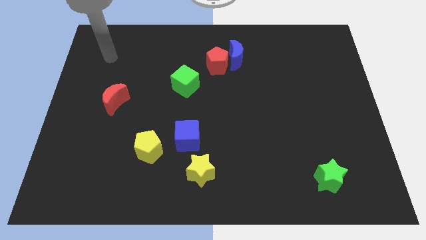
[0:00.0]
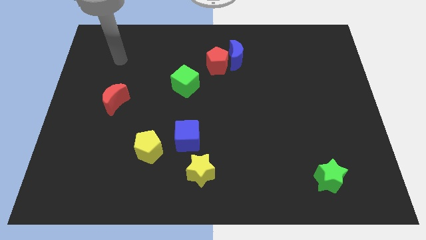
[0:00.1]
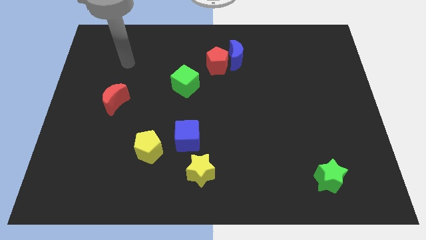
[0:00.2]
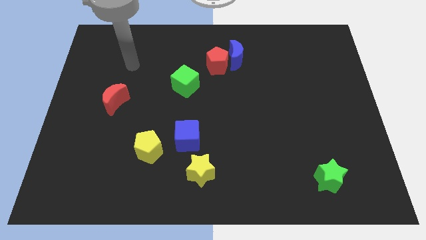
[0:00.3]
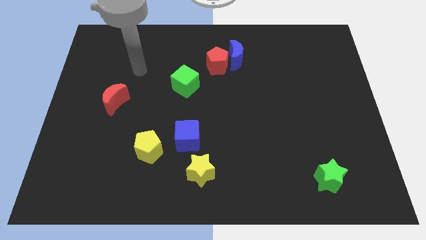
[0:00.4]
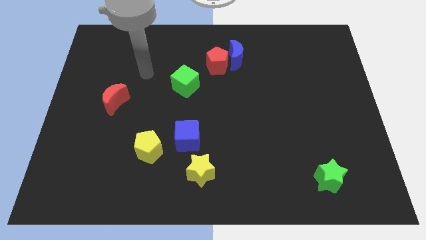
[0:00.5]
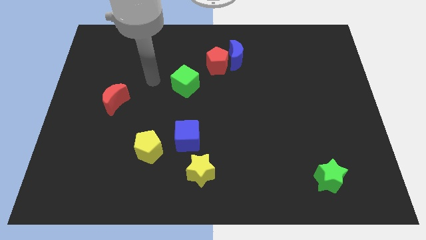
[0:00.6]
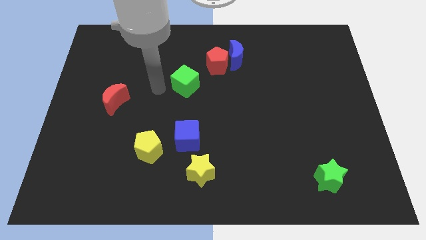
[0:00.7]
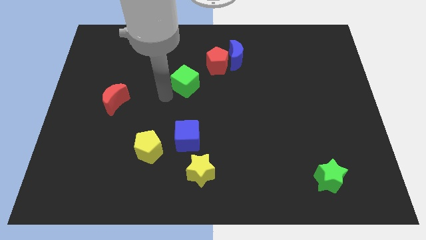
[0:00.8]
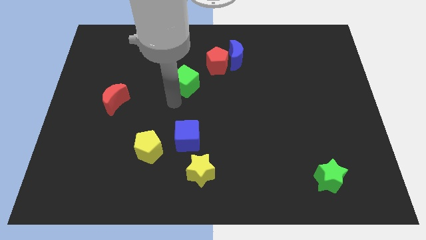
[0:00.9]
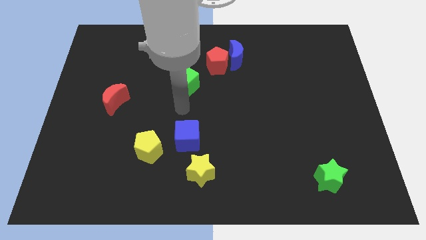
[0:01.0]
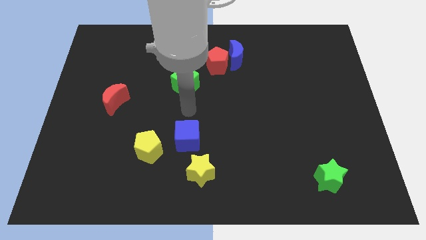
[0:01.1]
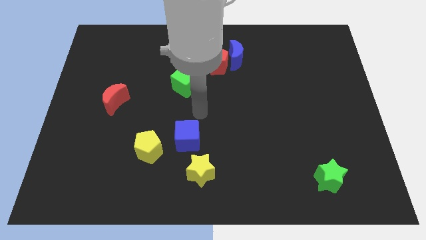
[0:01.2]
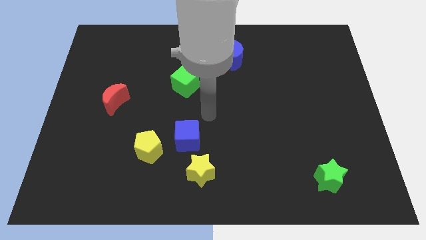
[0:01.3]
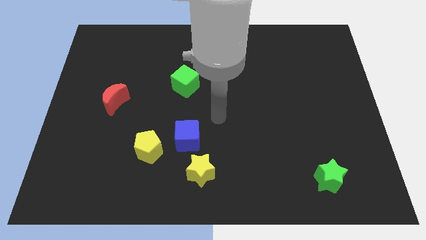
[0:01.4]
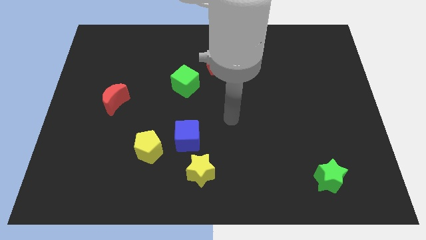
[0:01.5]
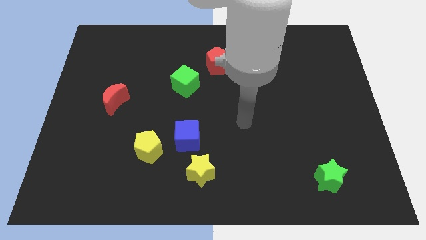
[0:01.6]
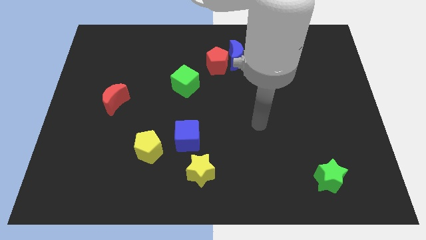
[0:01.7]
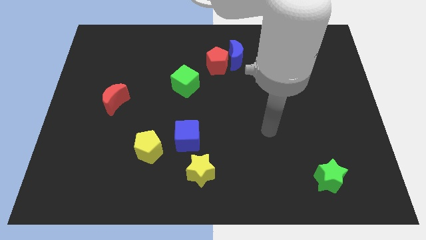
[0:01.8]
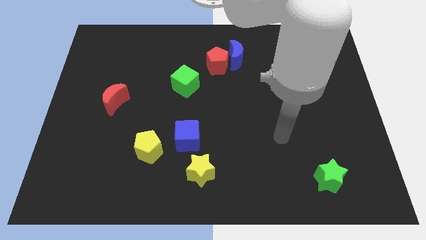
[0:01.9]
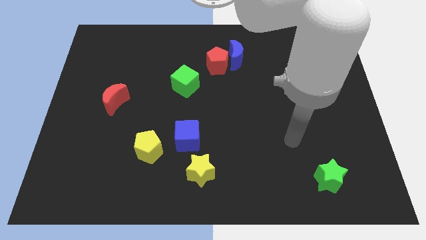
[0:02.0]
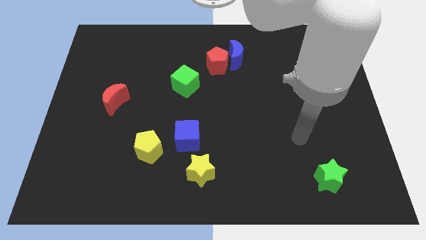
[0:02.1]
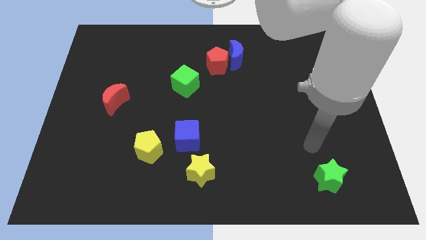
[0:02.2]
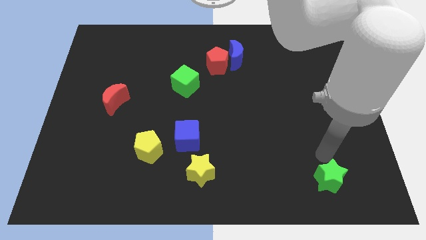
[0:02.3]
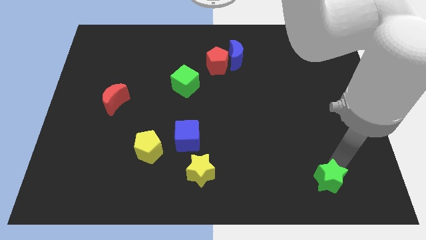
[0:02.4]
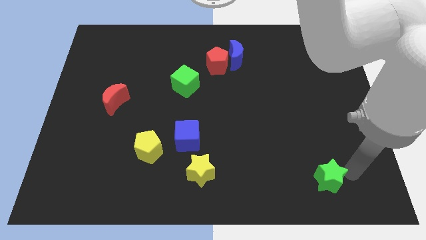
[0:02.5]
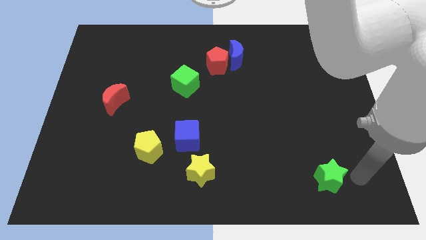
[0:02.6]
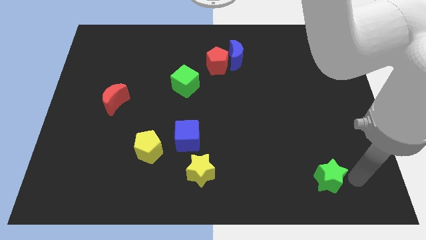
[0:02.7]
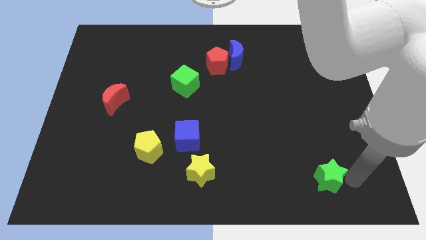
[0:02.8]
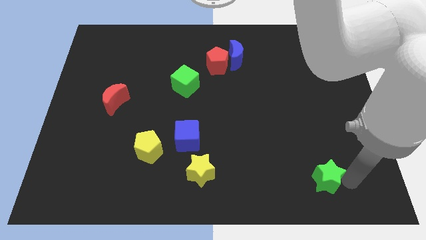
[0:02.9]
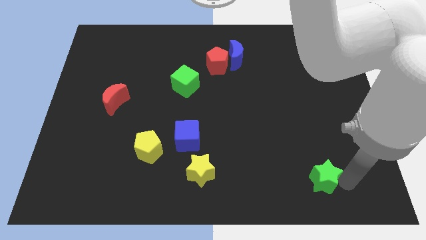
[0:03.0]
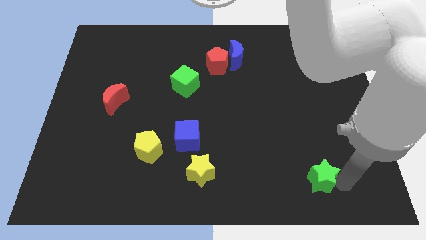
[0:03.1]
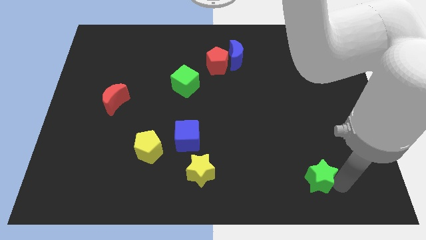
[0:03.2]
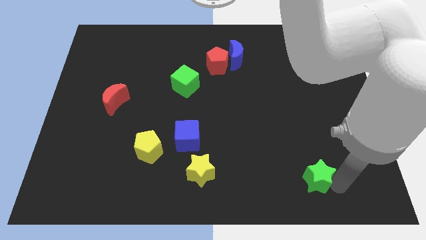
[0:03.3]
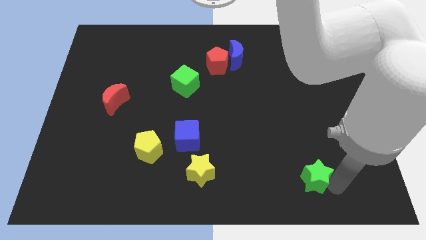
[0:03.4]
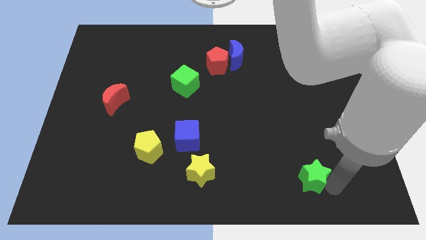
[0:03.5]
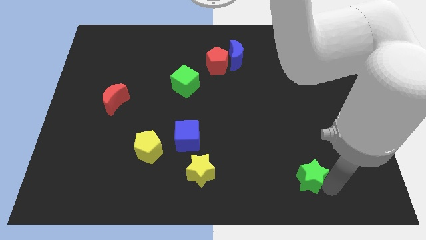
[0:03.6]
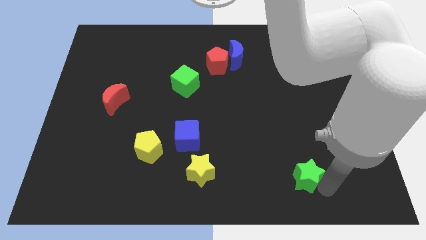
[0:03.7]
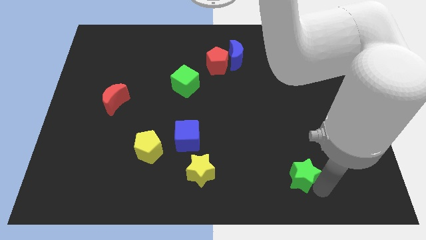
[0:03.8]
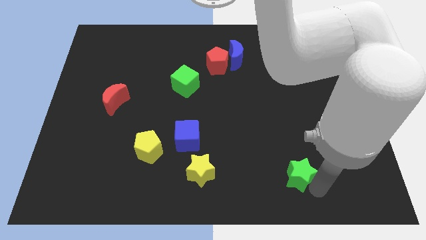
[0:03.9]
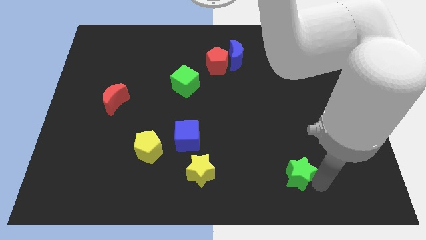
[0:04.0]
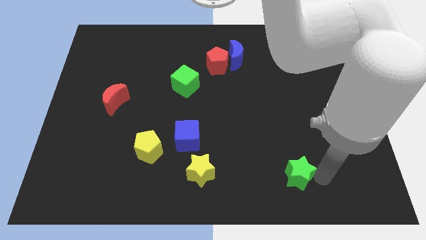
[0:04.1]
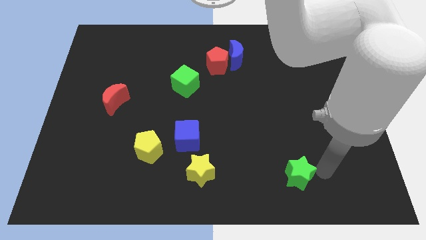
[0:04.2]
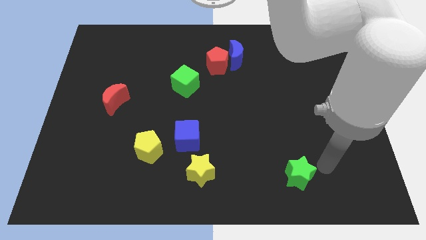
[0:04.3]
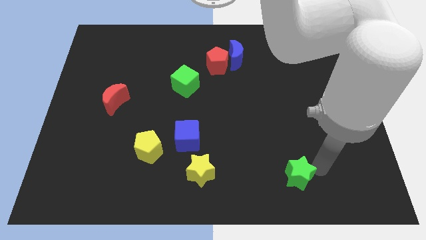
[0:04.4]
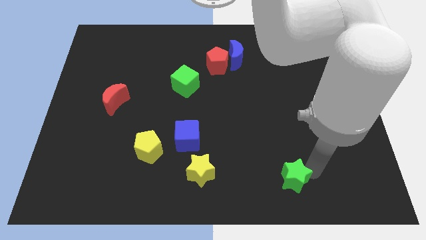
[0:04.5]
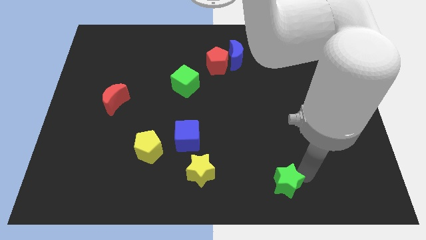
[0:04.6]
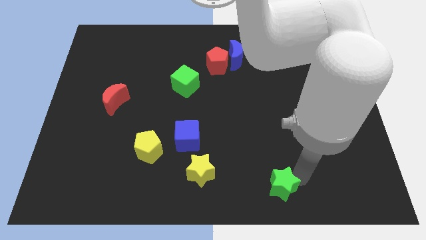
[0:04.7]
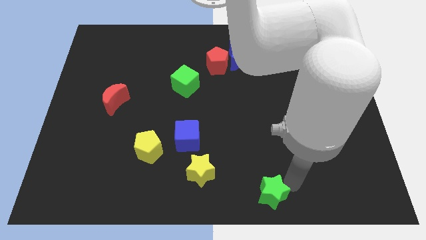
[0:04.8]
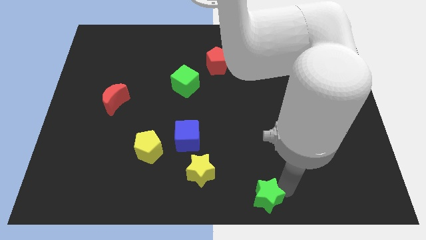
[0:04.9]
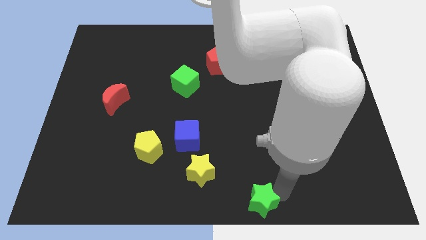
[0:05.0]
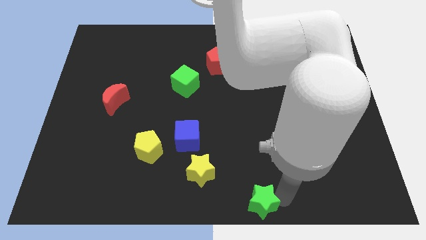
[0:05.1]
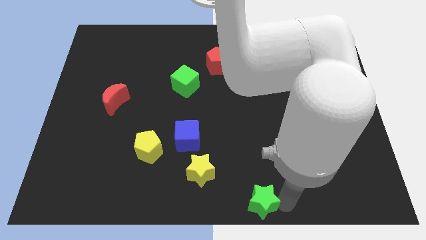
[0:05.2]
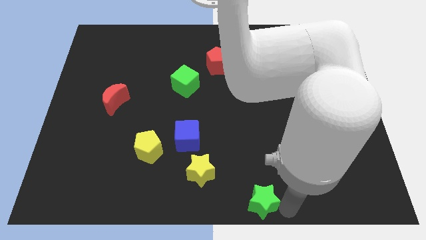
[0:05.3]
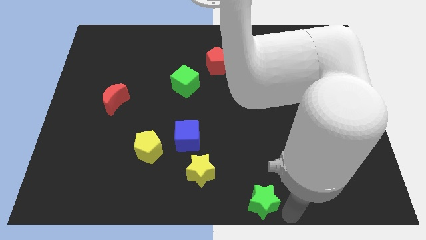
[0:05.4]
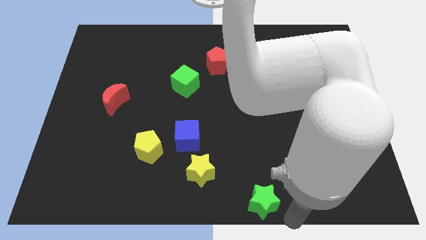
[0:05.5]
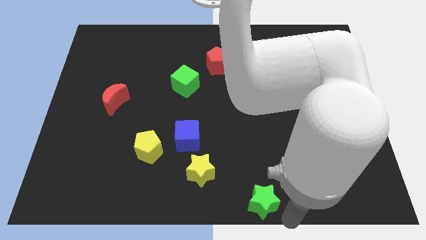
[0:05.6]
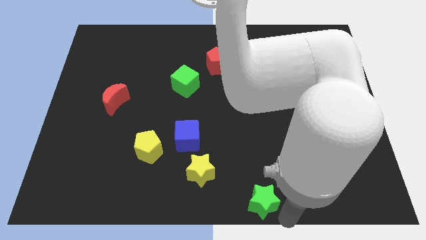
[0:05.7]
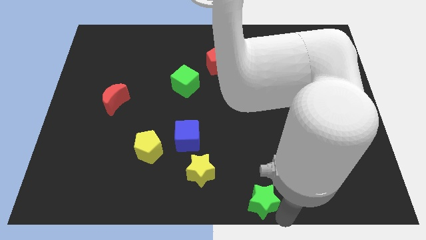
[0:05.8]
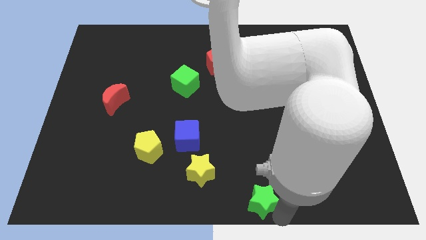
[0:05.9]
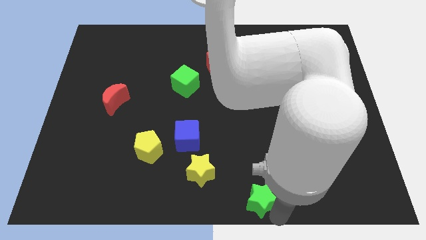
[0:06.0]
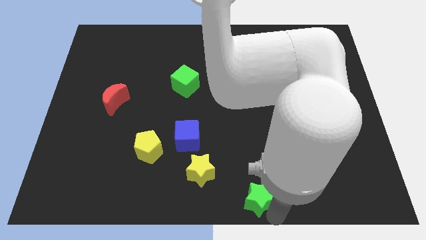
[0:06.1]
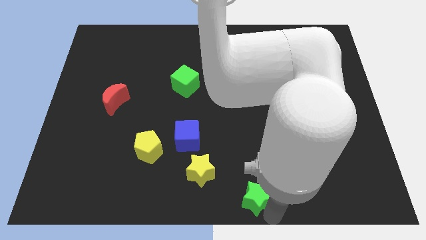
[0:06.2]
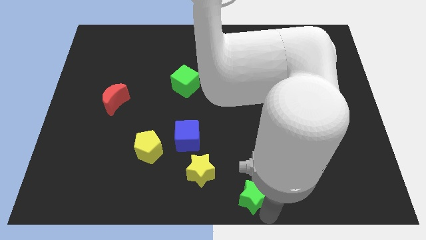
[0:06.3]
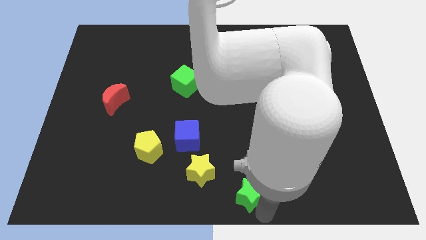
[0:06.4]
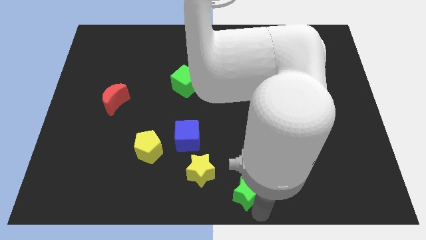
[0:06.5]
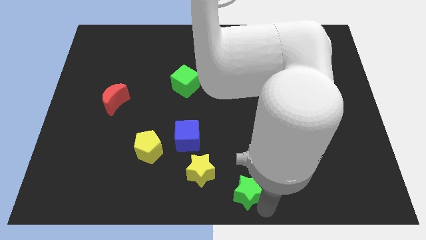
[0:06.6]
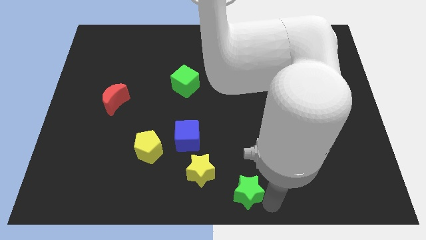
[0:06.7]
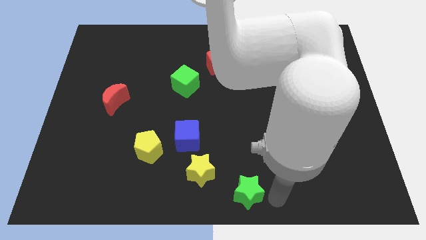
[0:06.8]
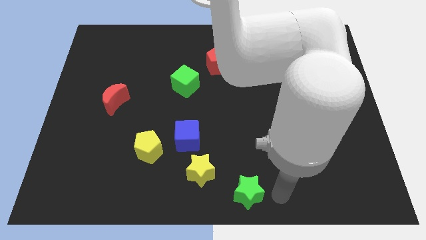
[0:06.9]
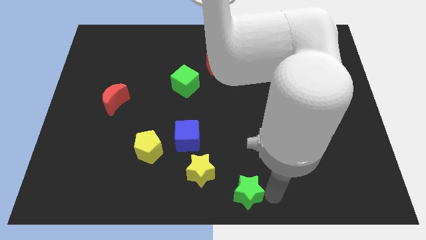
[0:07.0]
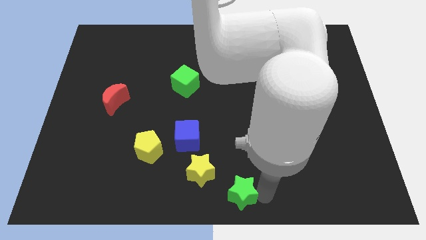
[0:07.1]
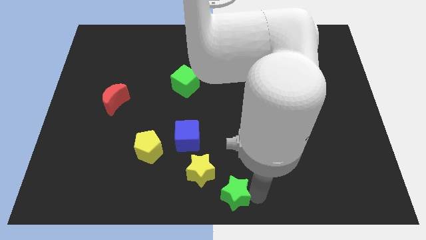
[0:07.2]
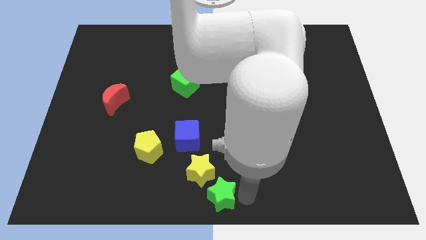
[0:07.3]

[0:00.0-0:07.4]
slide the green star to the left

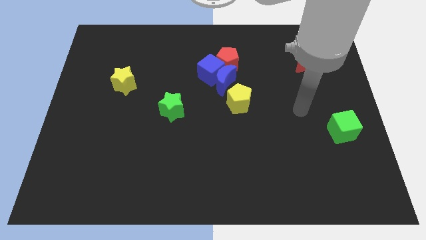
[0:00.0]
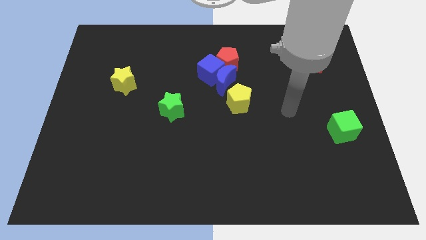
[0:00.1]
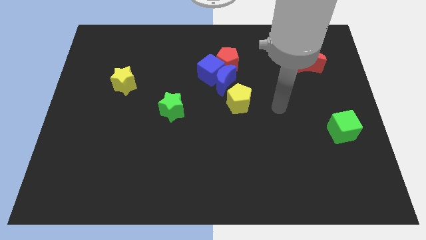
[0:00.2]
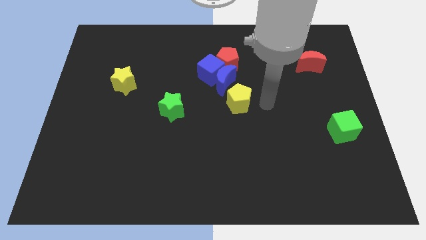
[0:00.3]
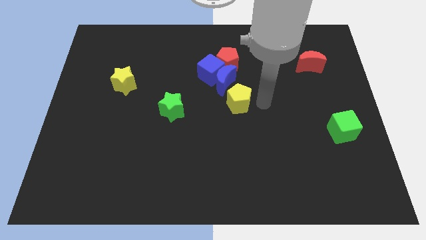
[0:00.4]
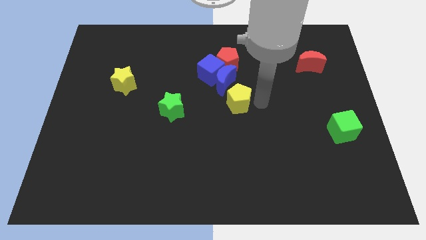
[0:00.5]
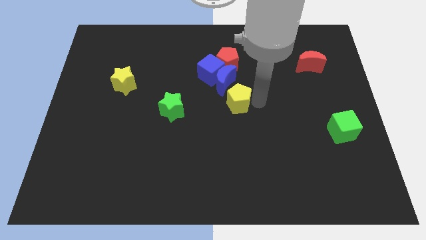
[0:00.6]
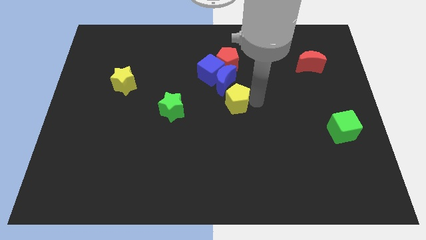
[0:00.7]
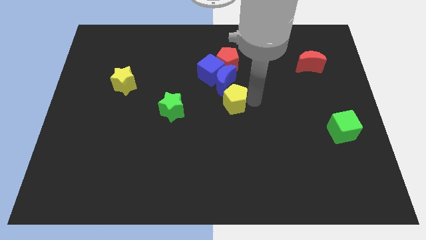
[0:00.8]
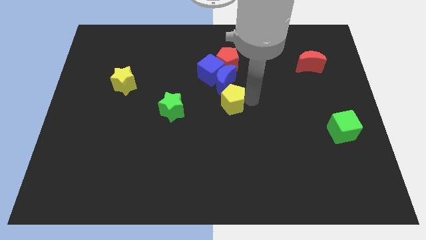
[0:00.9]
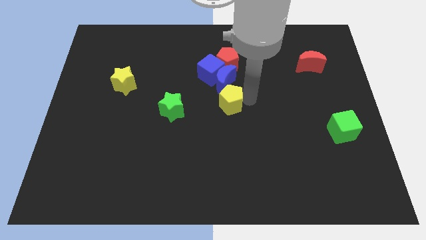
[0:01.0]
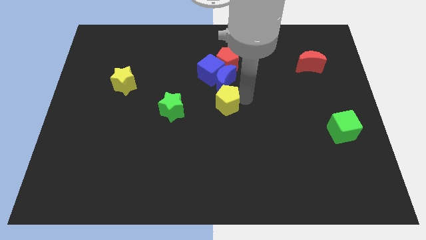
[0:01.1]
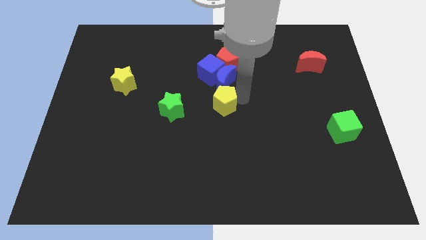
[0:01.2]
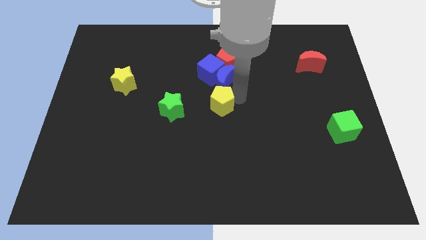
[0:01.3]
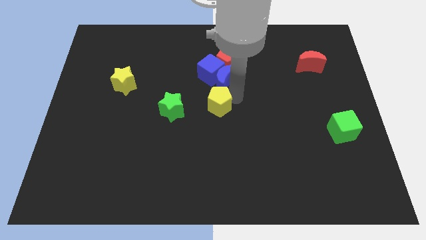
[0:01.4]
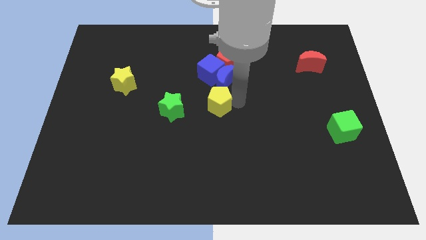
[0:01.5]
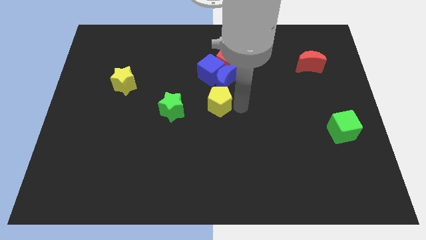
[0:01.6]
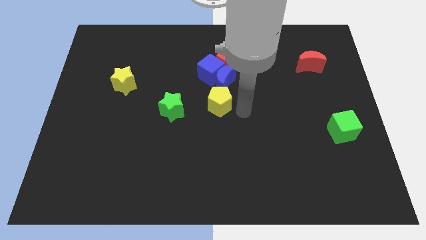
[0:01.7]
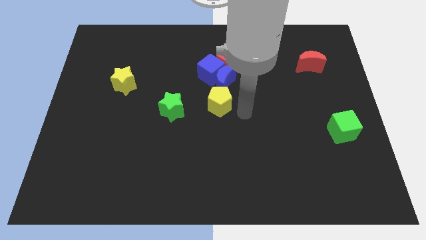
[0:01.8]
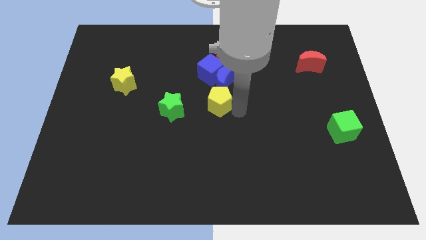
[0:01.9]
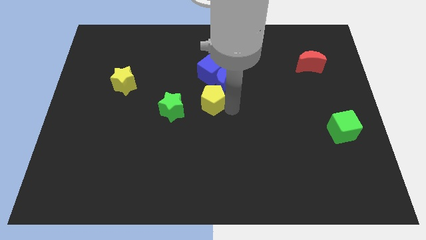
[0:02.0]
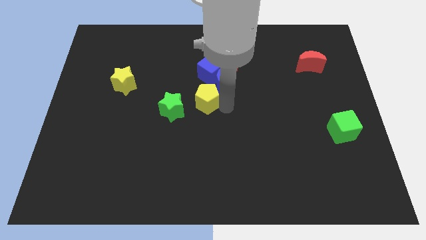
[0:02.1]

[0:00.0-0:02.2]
slide the yellow pentagon to the left slightly
